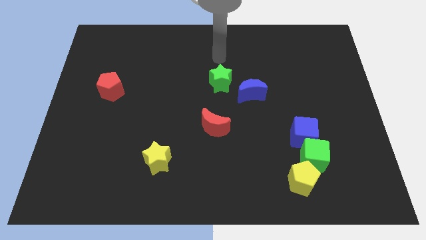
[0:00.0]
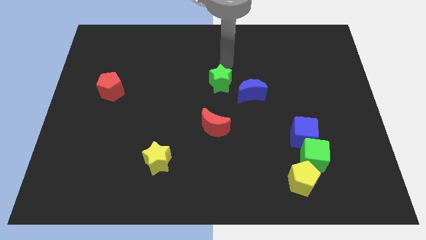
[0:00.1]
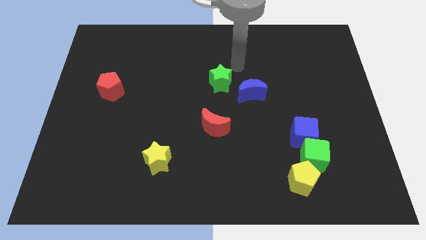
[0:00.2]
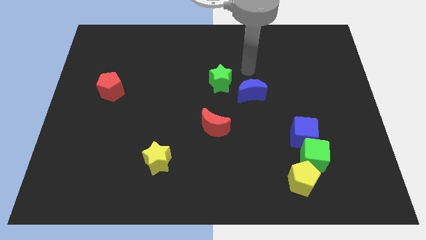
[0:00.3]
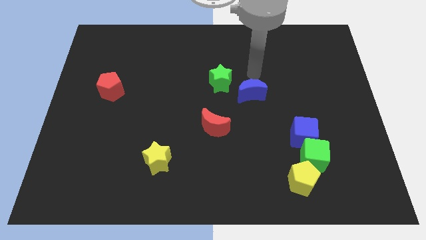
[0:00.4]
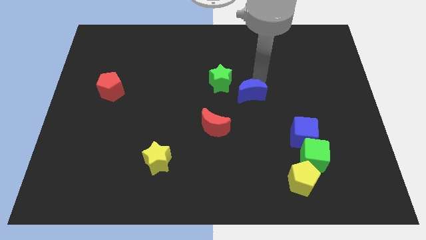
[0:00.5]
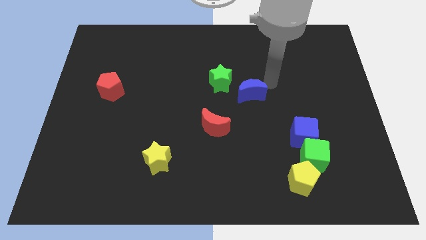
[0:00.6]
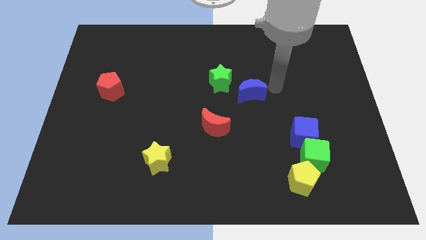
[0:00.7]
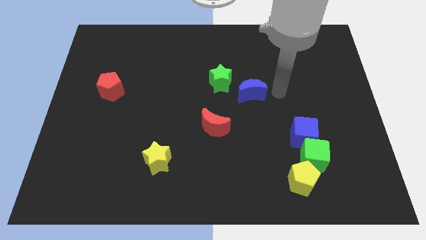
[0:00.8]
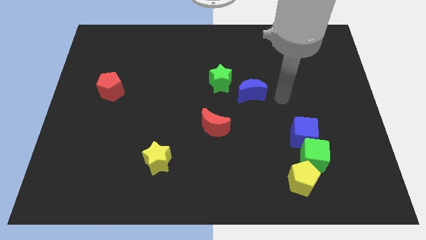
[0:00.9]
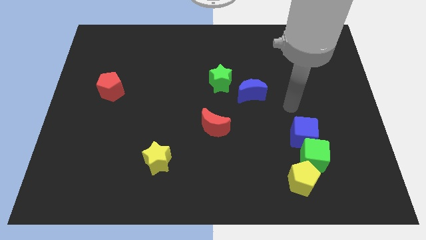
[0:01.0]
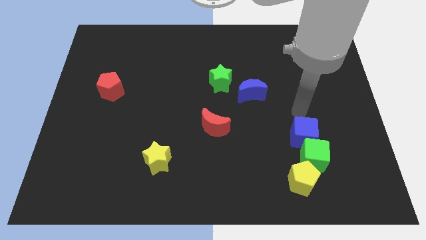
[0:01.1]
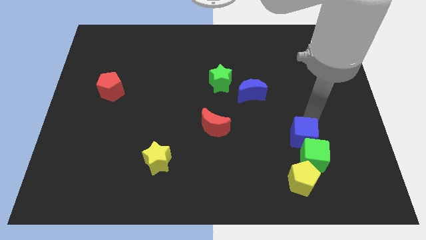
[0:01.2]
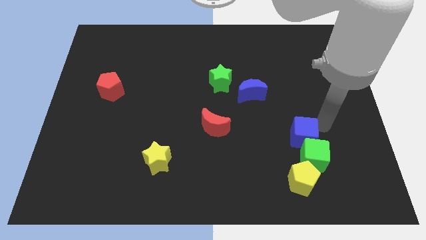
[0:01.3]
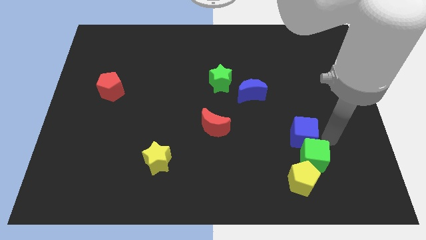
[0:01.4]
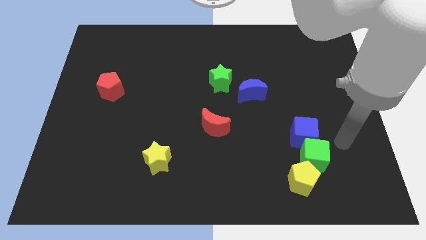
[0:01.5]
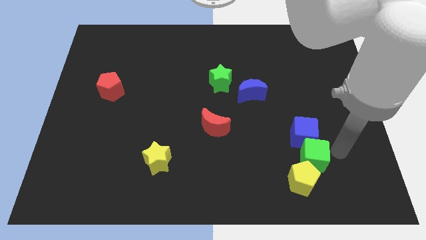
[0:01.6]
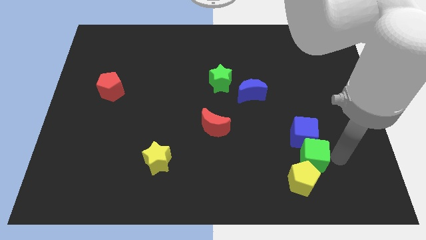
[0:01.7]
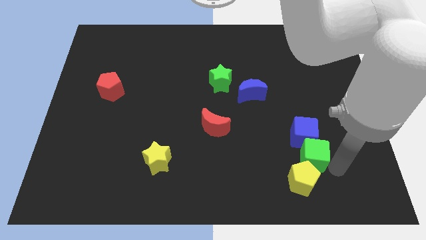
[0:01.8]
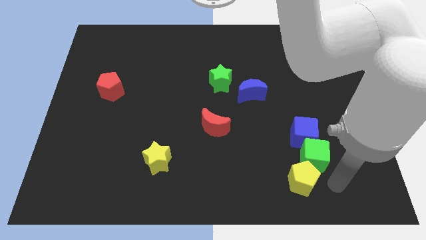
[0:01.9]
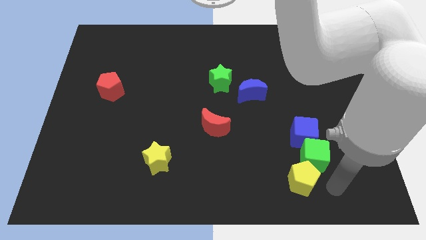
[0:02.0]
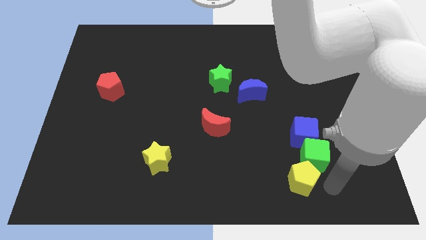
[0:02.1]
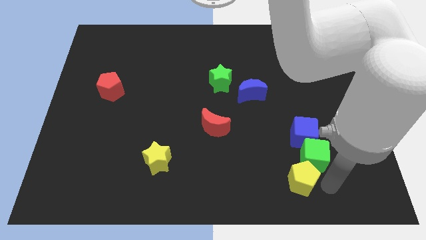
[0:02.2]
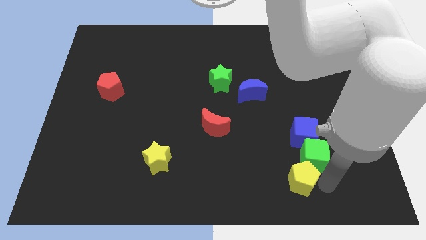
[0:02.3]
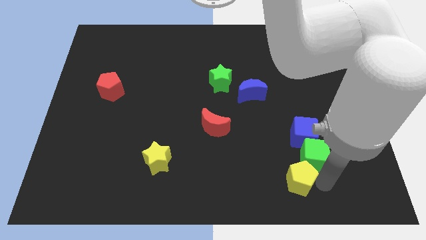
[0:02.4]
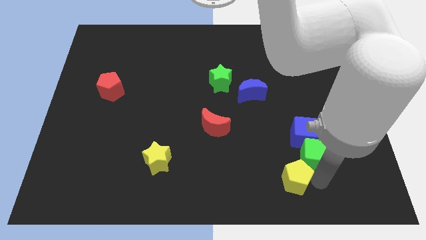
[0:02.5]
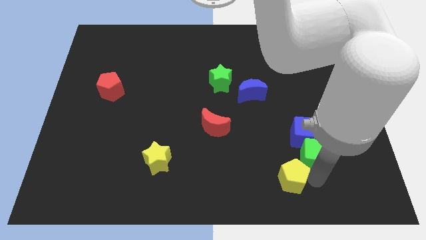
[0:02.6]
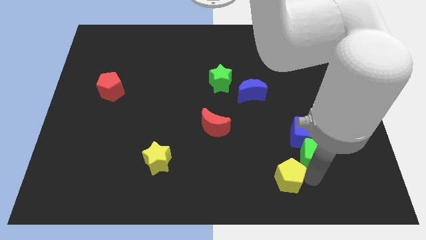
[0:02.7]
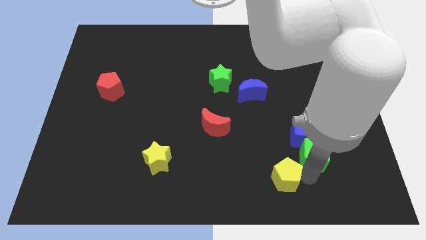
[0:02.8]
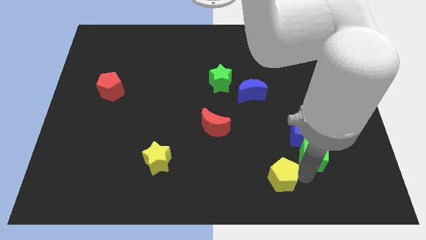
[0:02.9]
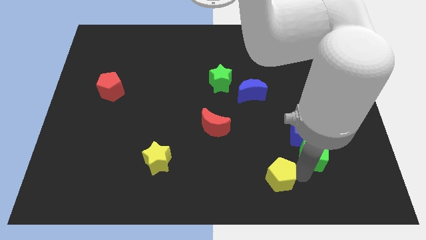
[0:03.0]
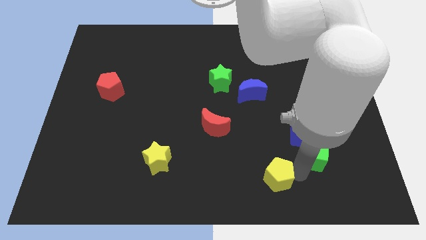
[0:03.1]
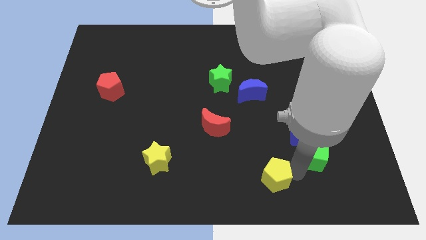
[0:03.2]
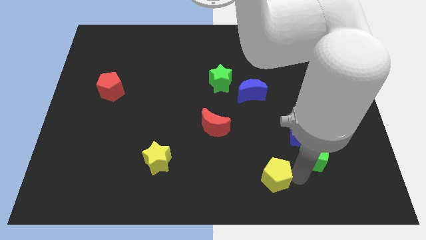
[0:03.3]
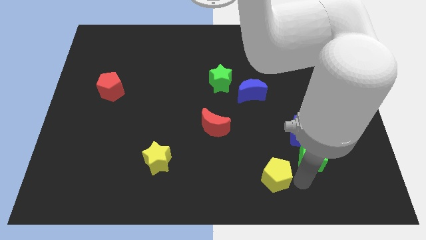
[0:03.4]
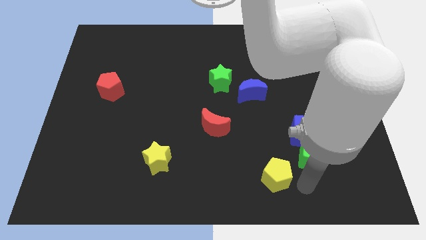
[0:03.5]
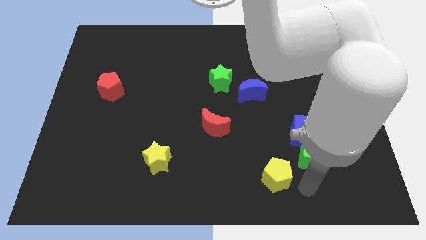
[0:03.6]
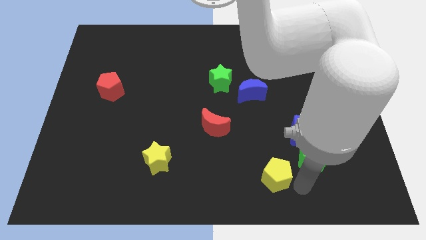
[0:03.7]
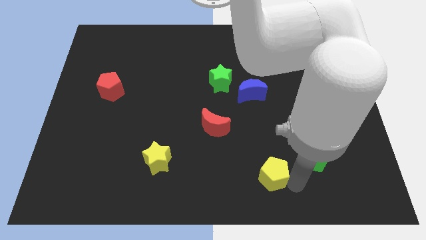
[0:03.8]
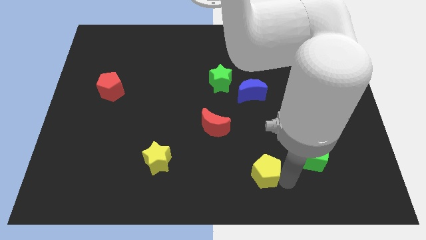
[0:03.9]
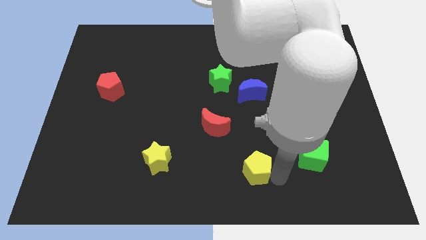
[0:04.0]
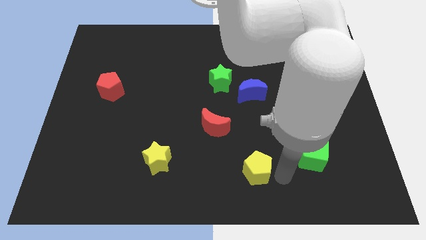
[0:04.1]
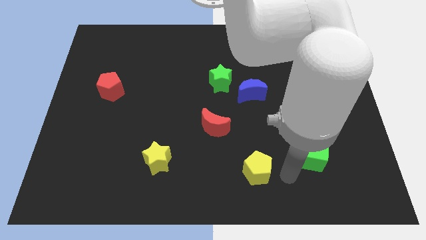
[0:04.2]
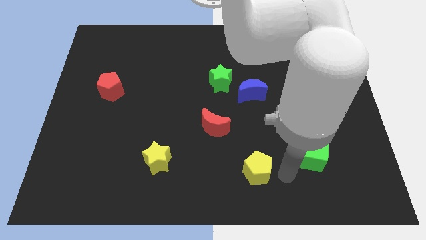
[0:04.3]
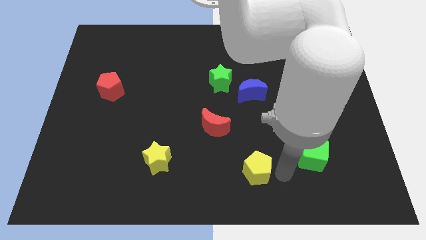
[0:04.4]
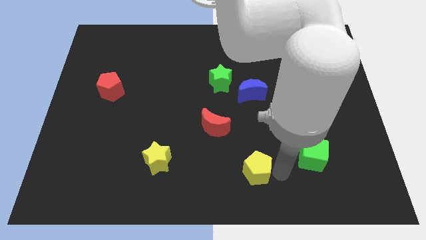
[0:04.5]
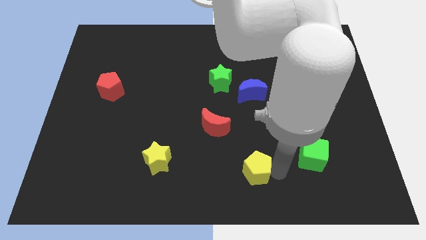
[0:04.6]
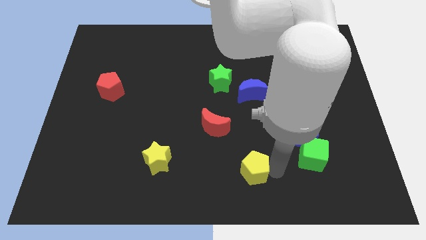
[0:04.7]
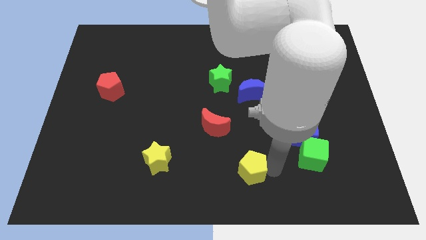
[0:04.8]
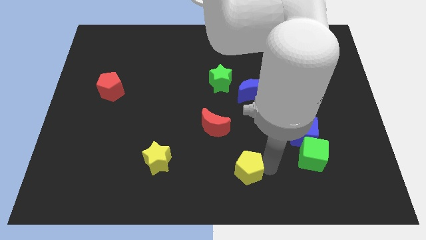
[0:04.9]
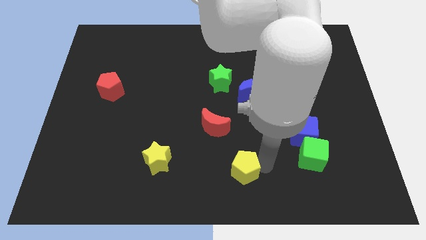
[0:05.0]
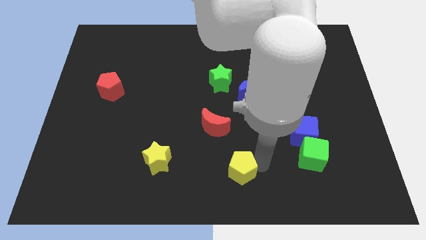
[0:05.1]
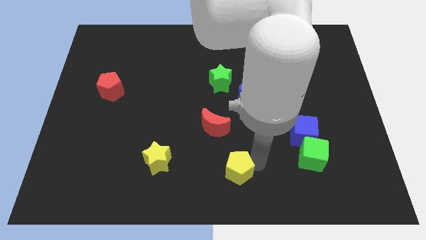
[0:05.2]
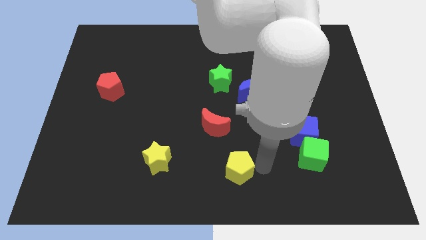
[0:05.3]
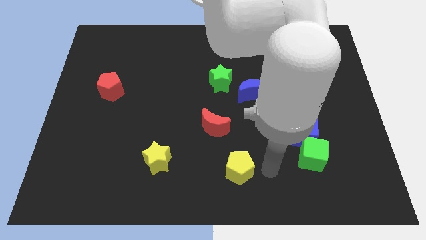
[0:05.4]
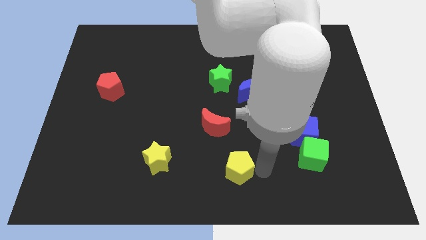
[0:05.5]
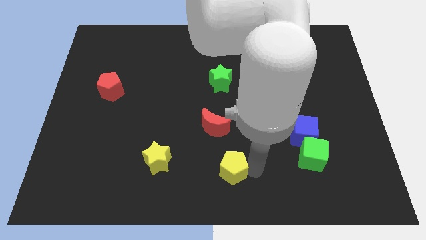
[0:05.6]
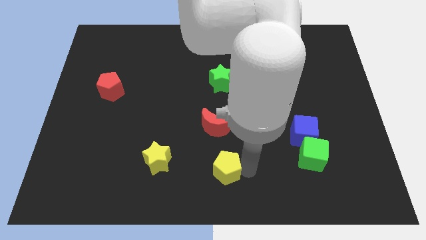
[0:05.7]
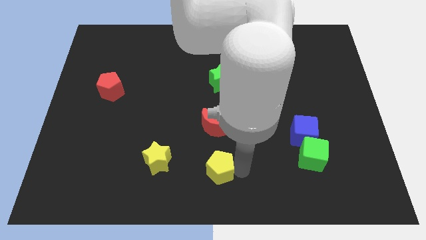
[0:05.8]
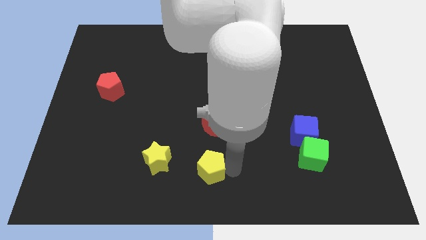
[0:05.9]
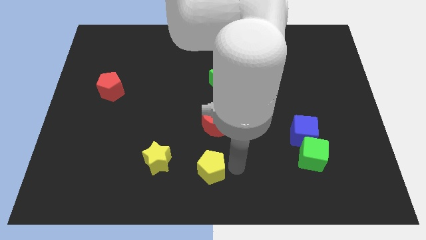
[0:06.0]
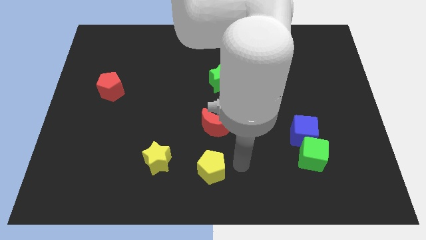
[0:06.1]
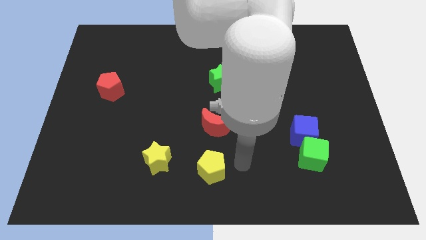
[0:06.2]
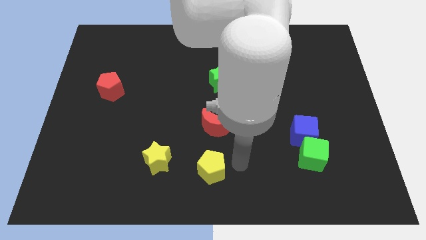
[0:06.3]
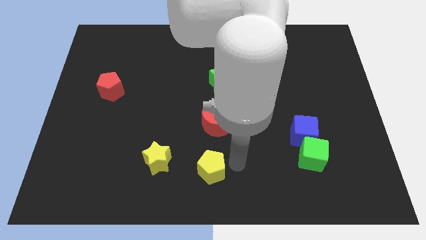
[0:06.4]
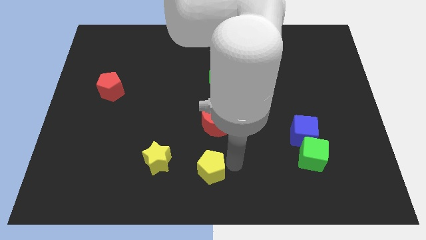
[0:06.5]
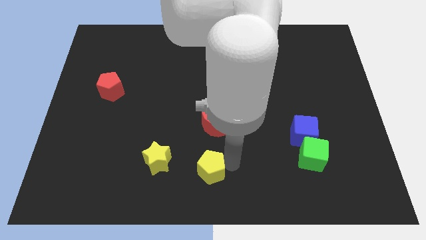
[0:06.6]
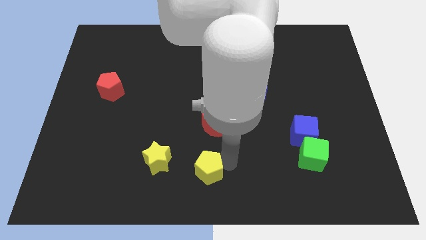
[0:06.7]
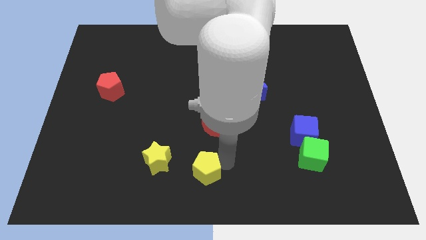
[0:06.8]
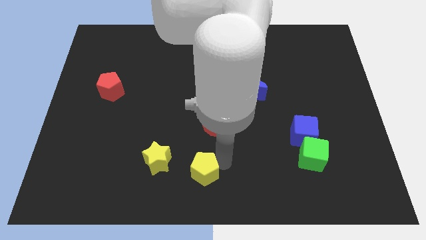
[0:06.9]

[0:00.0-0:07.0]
push the yellow pentagon to the left

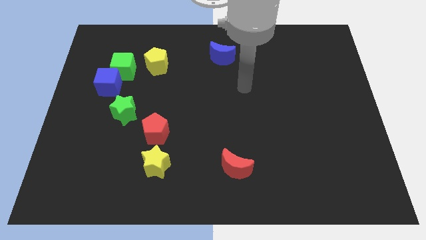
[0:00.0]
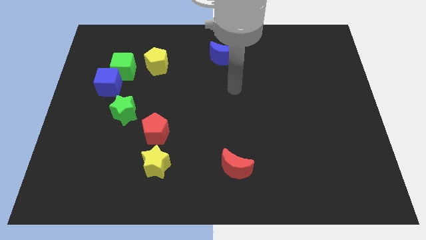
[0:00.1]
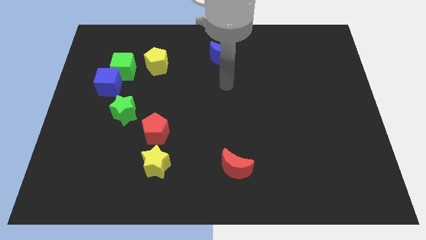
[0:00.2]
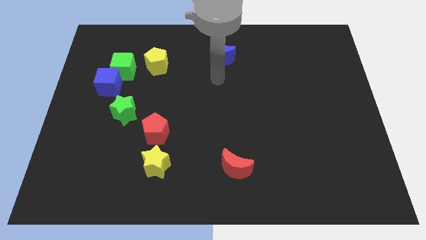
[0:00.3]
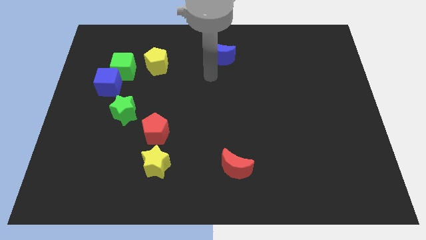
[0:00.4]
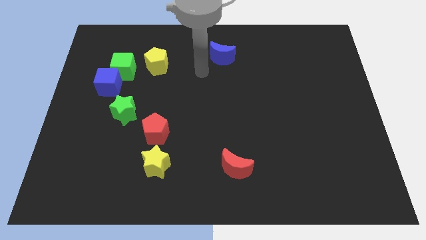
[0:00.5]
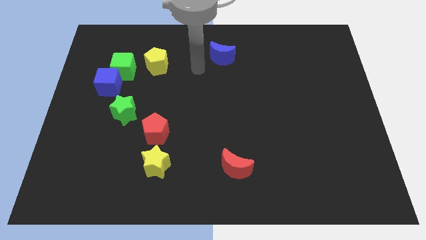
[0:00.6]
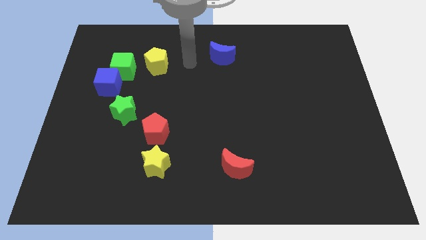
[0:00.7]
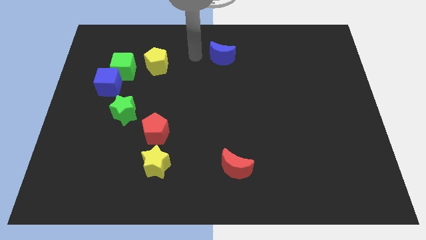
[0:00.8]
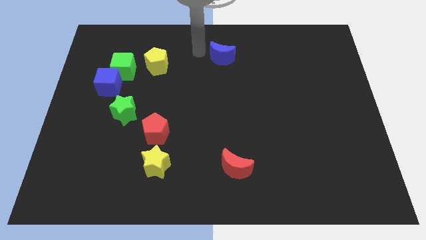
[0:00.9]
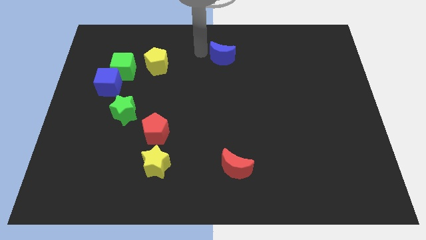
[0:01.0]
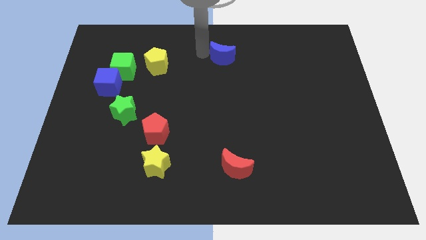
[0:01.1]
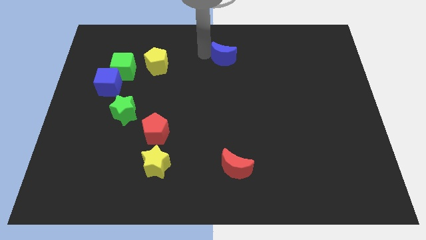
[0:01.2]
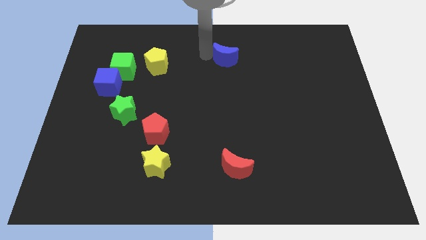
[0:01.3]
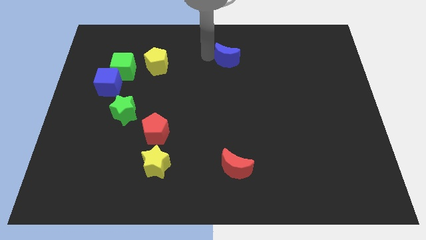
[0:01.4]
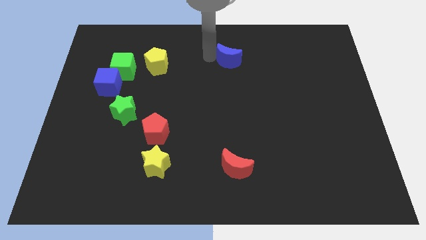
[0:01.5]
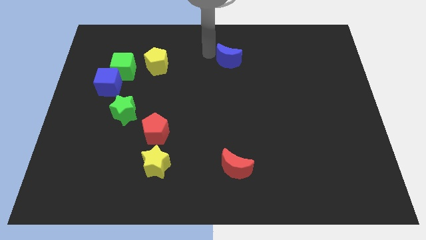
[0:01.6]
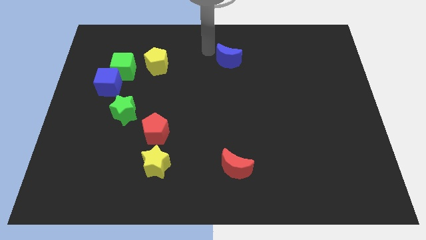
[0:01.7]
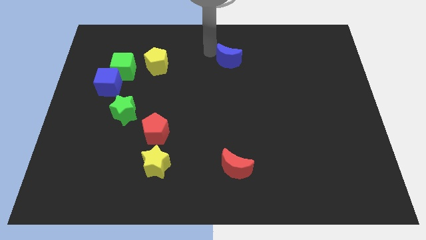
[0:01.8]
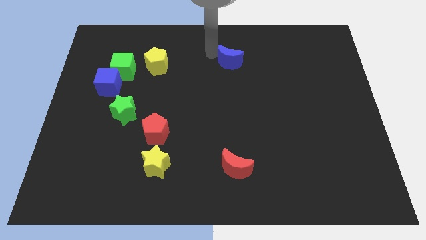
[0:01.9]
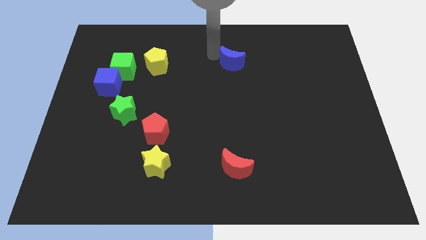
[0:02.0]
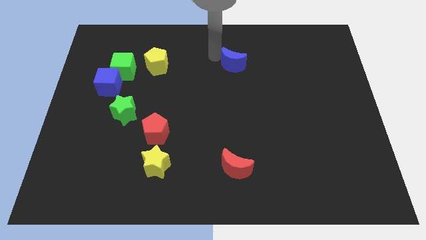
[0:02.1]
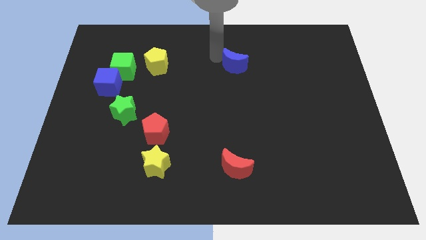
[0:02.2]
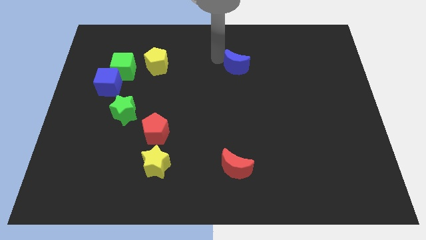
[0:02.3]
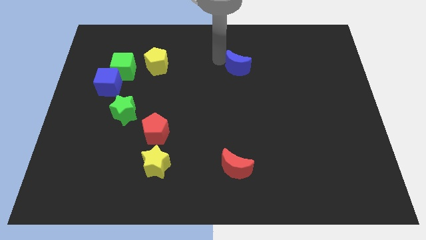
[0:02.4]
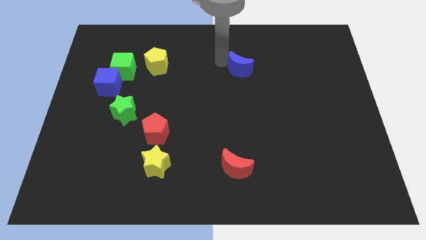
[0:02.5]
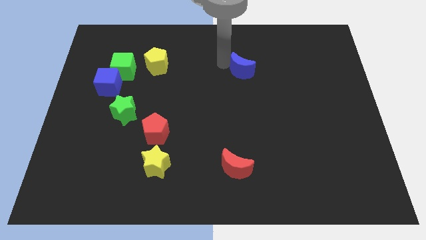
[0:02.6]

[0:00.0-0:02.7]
slightly move the blue moon down and to the right
